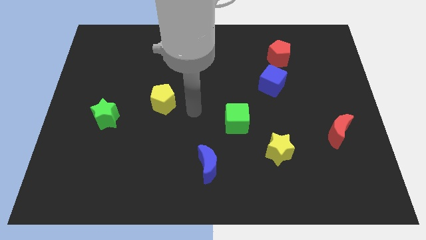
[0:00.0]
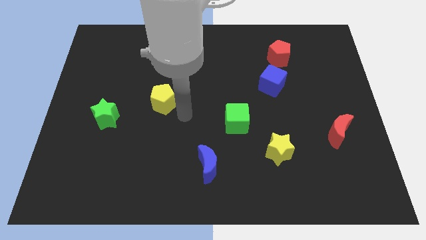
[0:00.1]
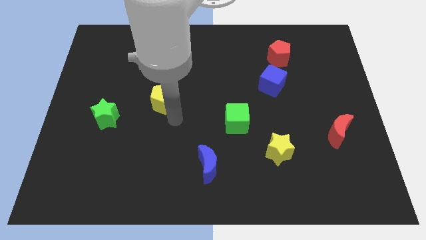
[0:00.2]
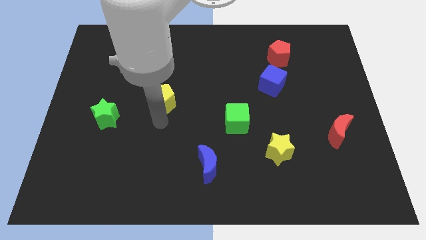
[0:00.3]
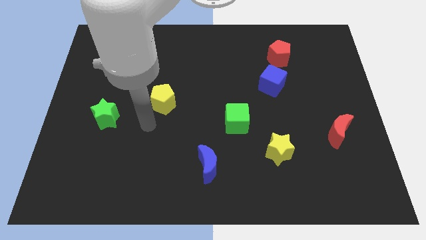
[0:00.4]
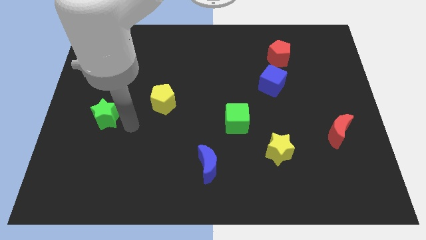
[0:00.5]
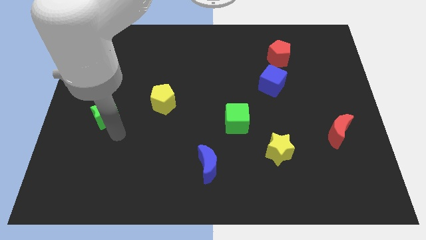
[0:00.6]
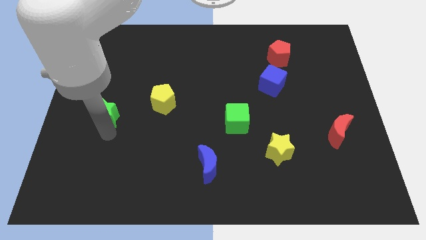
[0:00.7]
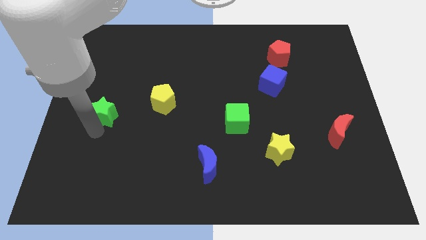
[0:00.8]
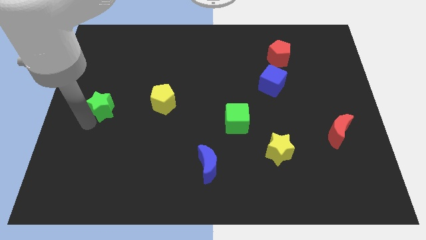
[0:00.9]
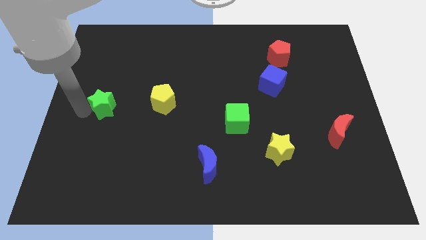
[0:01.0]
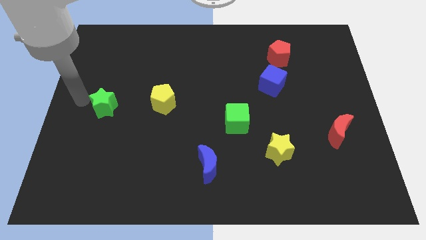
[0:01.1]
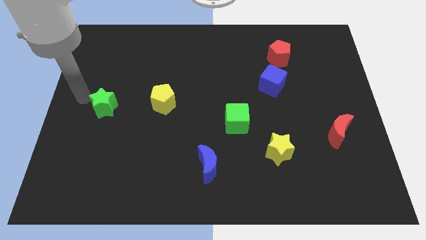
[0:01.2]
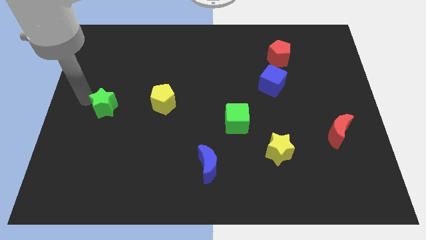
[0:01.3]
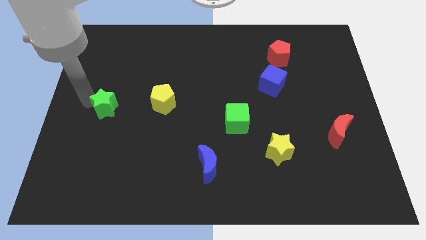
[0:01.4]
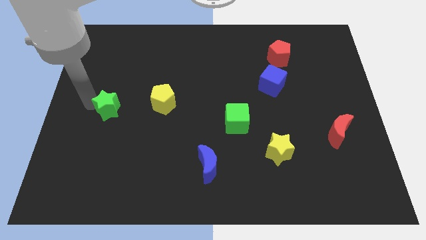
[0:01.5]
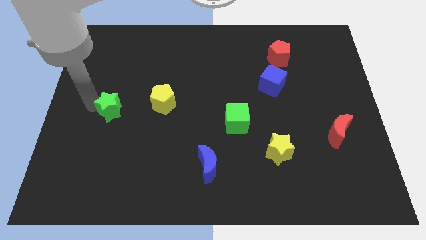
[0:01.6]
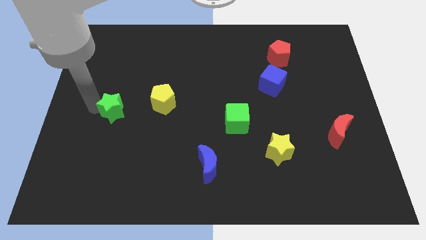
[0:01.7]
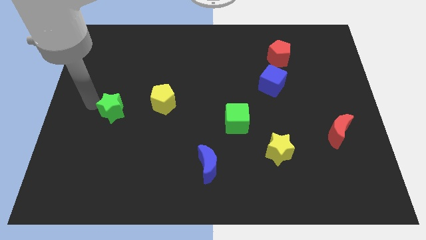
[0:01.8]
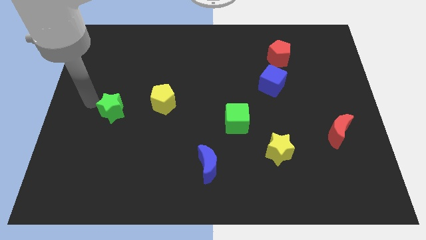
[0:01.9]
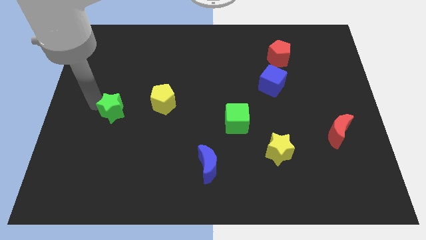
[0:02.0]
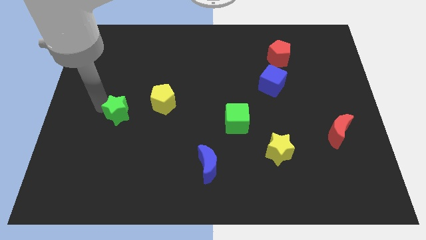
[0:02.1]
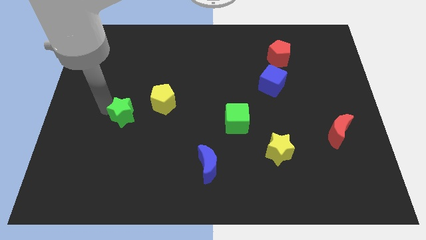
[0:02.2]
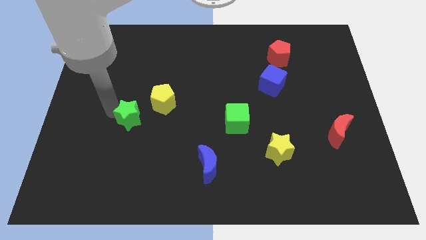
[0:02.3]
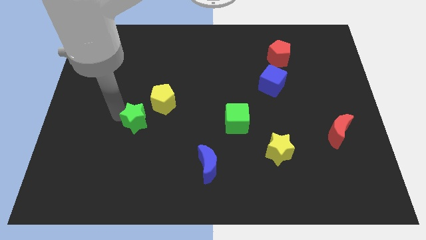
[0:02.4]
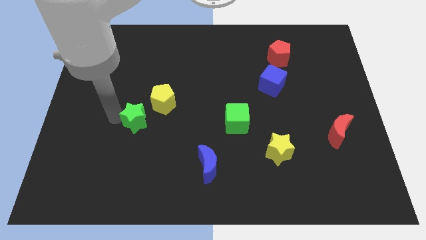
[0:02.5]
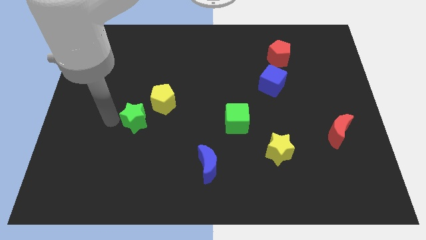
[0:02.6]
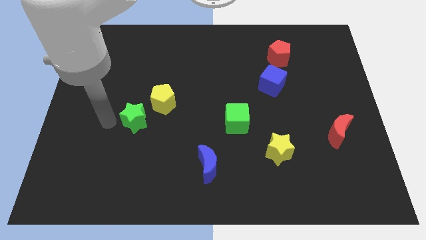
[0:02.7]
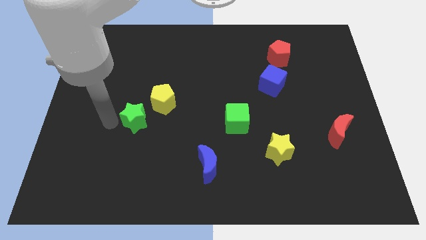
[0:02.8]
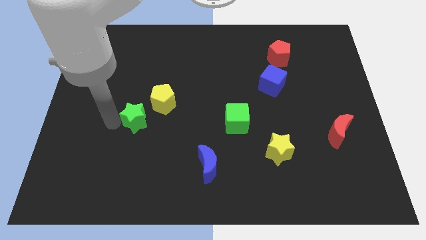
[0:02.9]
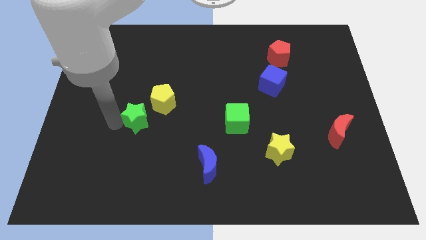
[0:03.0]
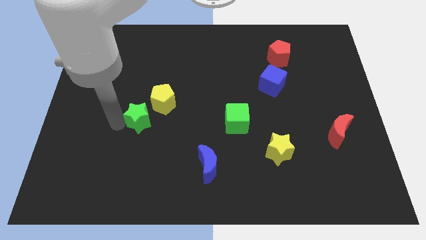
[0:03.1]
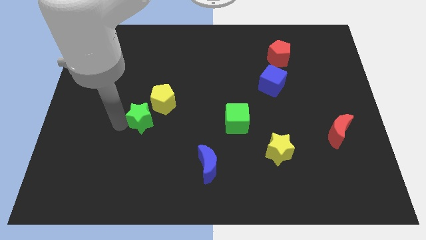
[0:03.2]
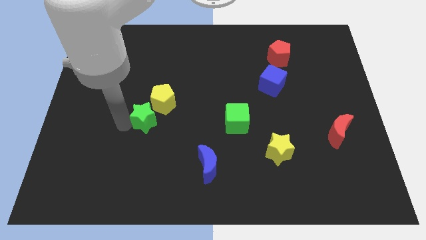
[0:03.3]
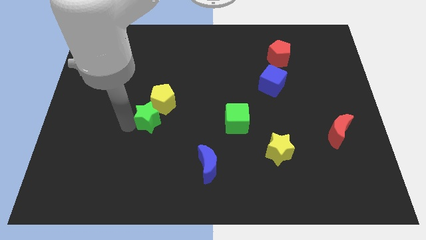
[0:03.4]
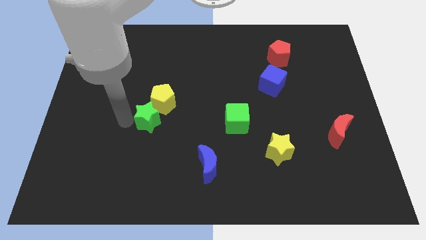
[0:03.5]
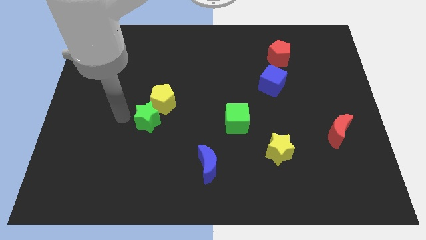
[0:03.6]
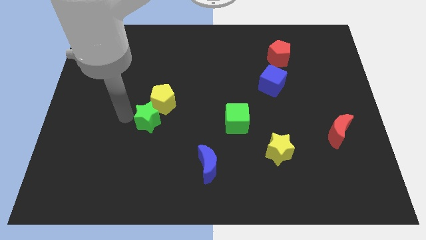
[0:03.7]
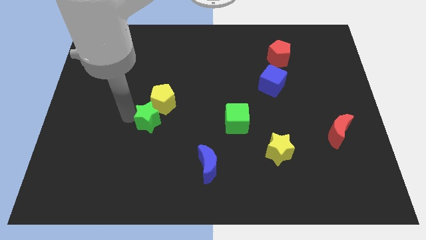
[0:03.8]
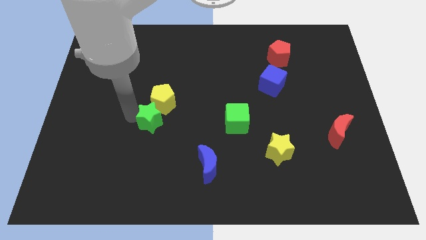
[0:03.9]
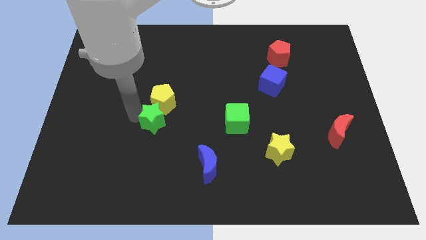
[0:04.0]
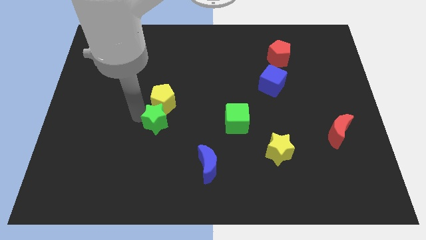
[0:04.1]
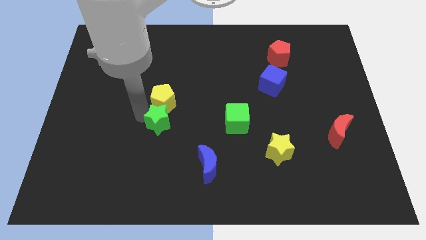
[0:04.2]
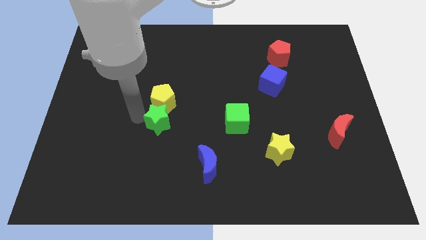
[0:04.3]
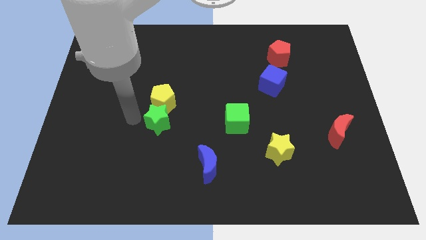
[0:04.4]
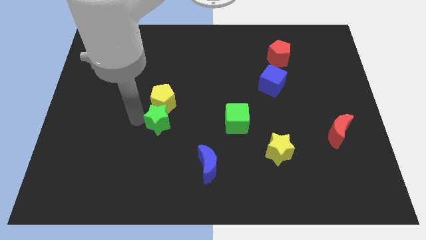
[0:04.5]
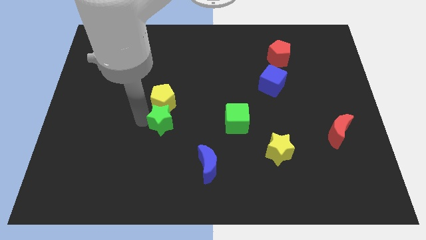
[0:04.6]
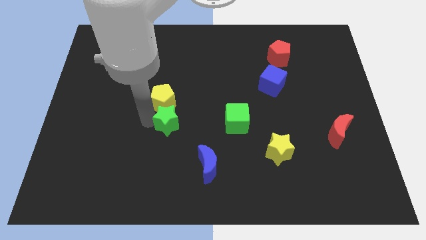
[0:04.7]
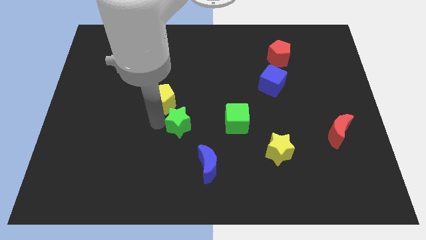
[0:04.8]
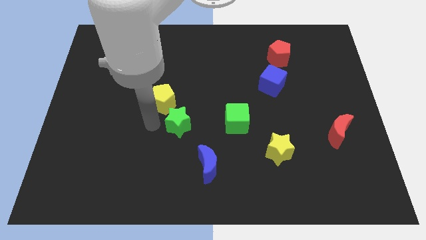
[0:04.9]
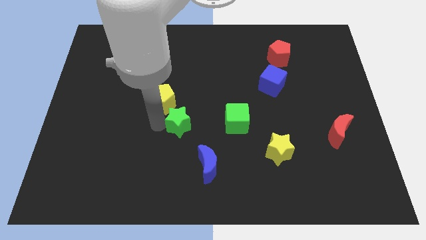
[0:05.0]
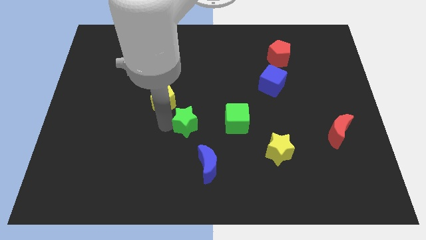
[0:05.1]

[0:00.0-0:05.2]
slide the green star to the top of the blue moon

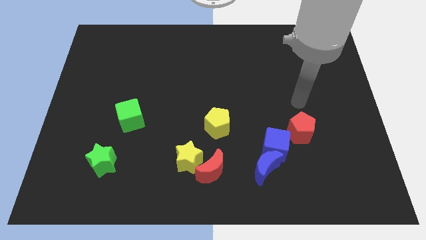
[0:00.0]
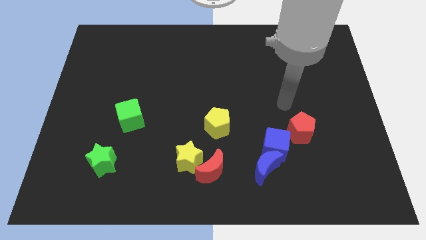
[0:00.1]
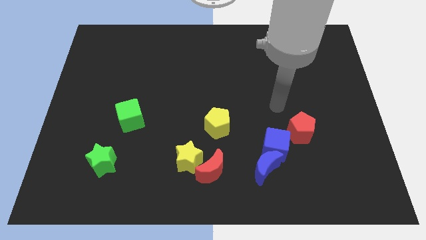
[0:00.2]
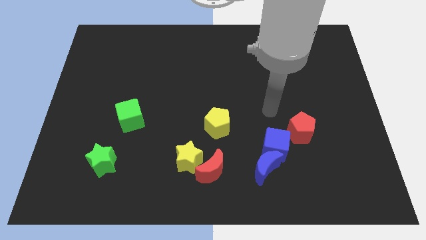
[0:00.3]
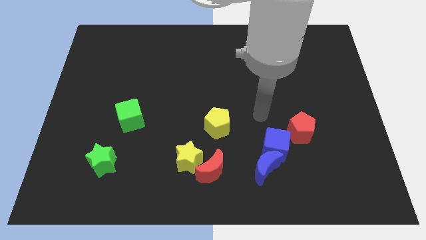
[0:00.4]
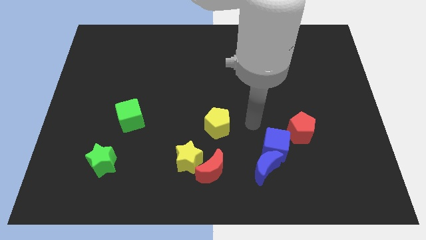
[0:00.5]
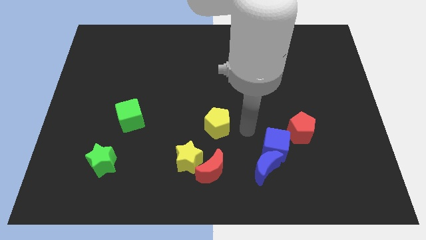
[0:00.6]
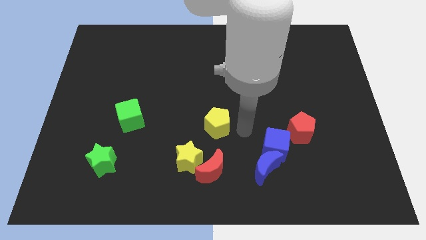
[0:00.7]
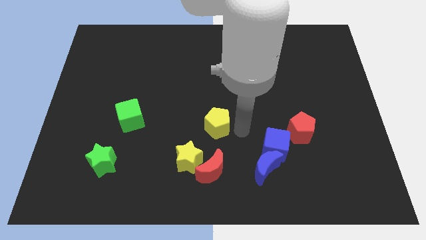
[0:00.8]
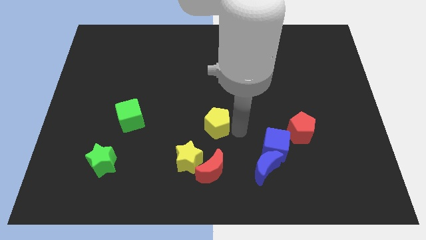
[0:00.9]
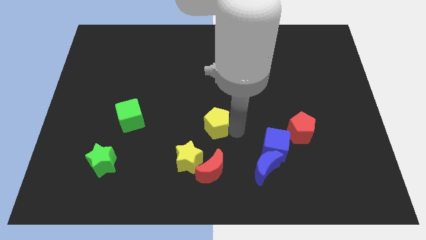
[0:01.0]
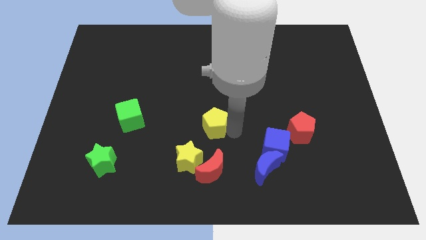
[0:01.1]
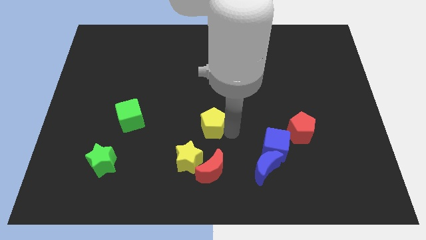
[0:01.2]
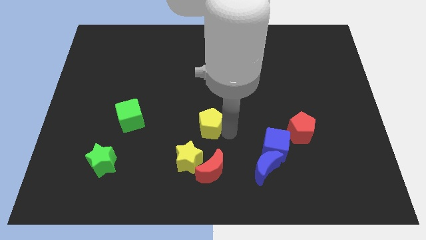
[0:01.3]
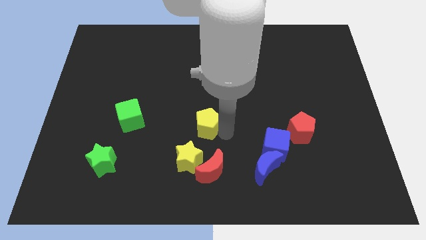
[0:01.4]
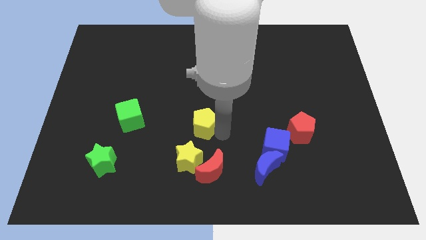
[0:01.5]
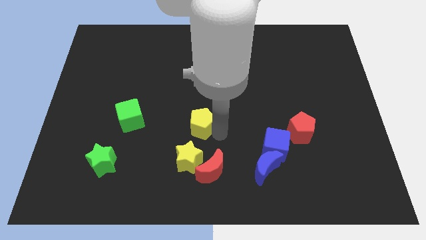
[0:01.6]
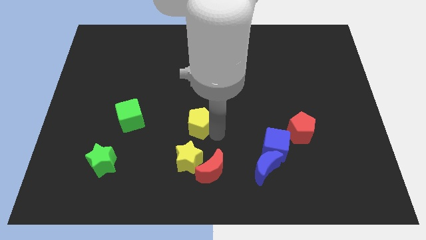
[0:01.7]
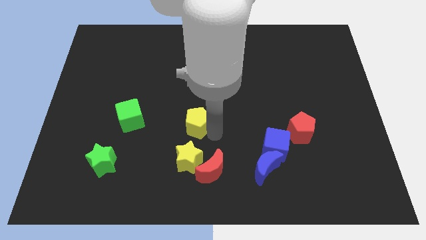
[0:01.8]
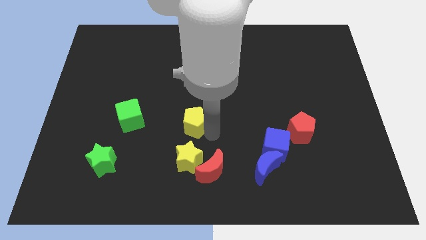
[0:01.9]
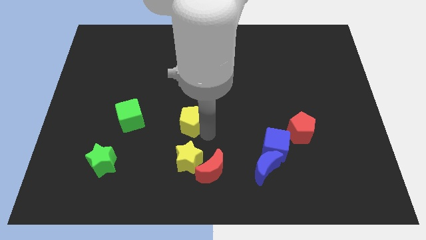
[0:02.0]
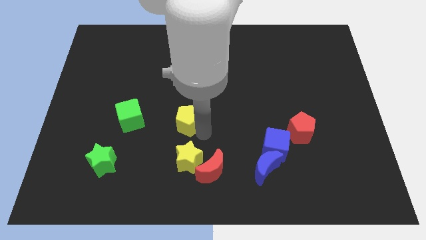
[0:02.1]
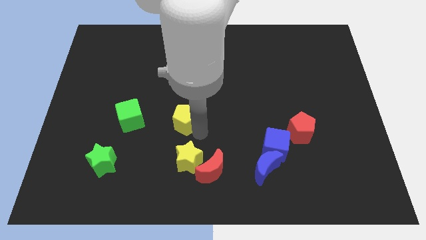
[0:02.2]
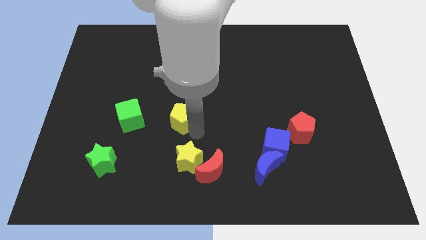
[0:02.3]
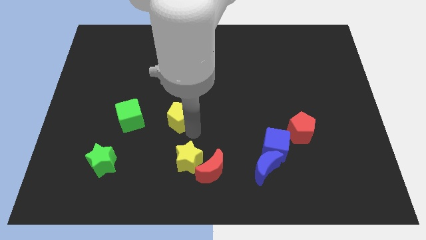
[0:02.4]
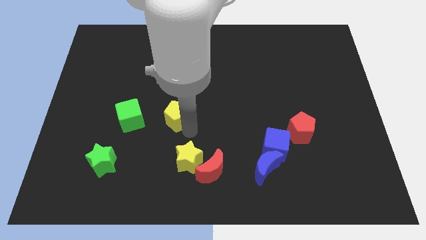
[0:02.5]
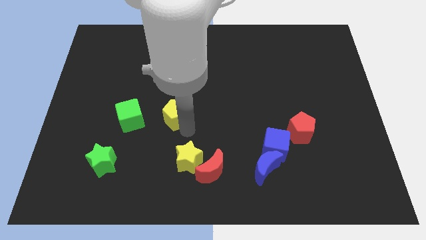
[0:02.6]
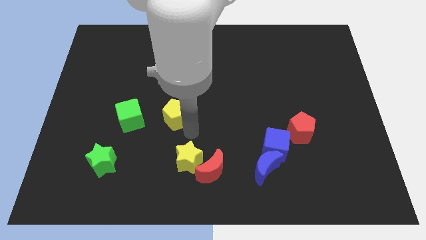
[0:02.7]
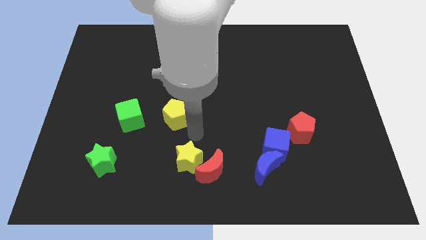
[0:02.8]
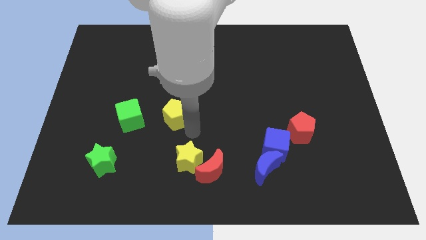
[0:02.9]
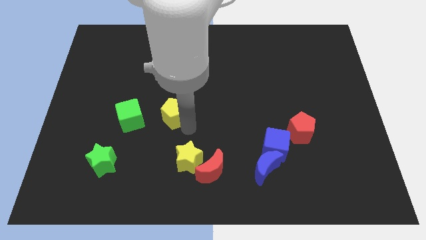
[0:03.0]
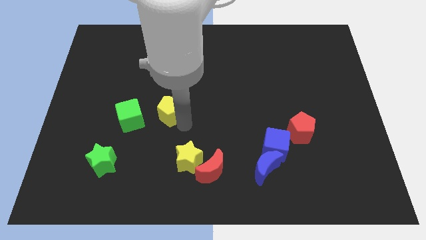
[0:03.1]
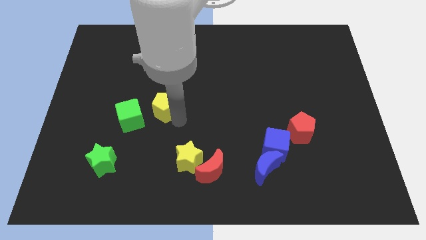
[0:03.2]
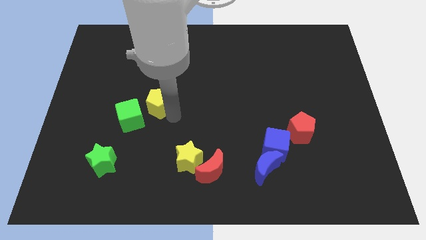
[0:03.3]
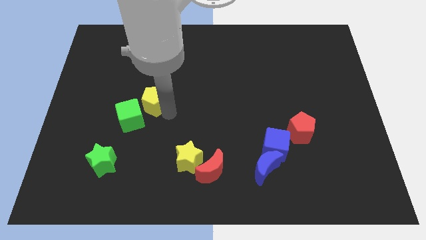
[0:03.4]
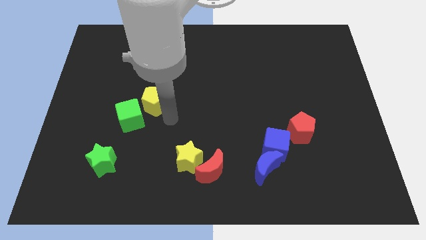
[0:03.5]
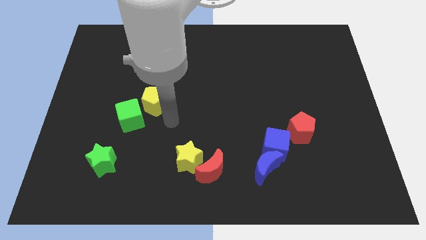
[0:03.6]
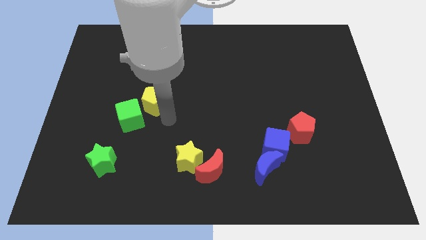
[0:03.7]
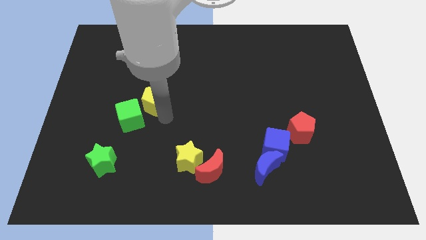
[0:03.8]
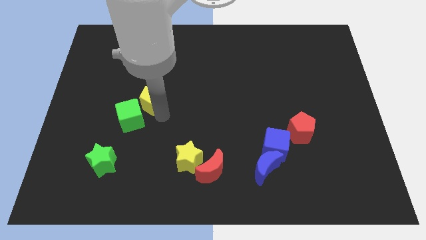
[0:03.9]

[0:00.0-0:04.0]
slide the yellow pentagon to the top side of the green cube
